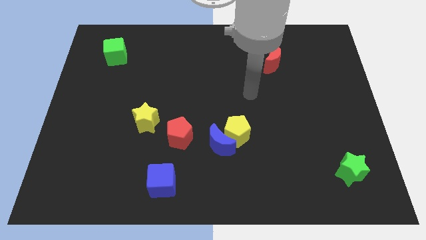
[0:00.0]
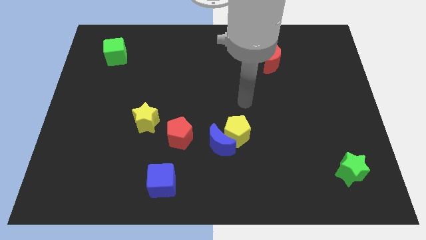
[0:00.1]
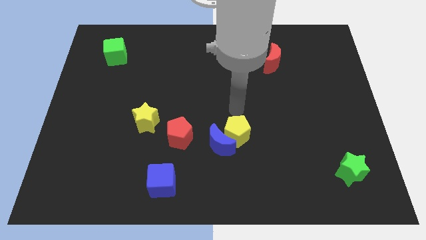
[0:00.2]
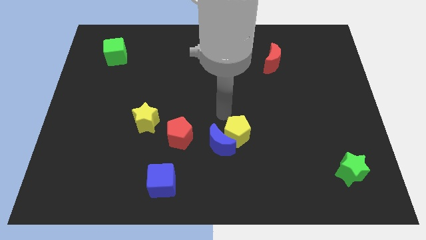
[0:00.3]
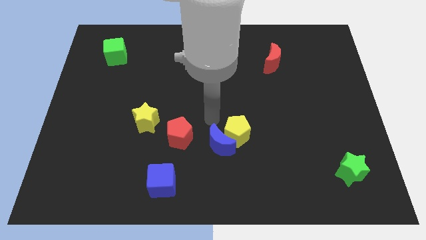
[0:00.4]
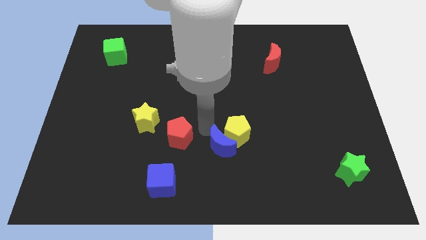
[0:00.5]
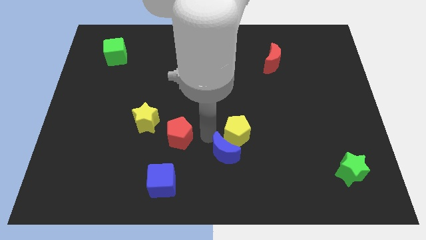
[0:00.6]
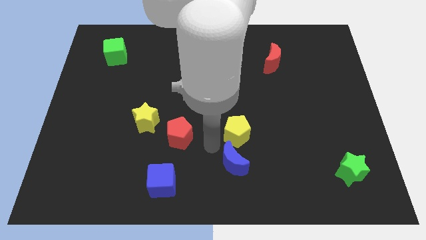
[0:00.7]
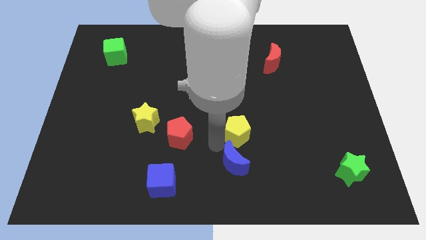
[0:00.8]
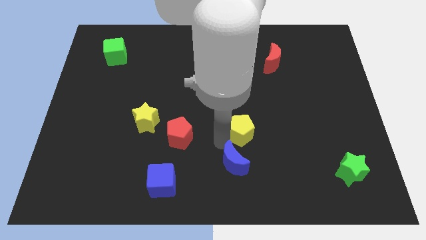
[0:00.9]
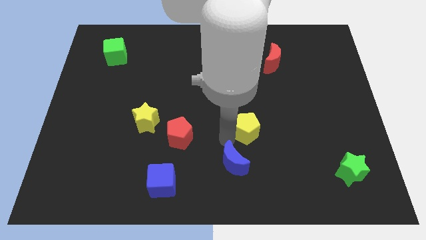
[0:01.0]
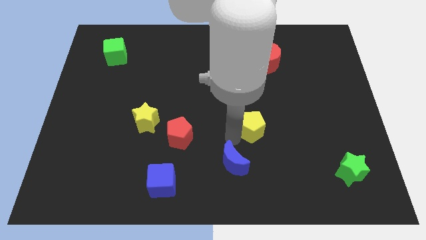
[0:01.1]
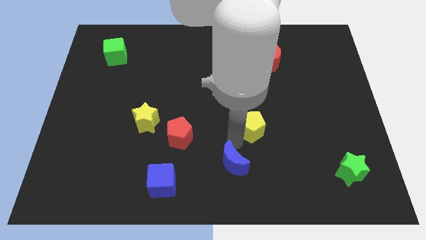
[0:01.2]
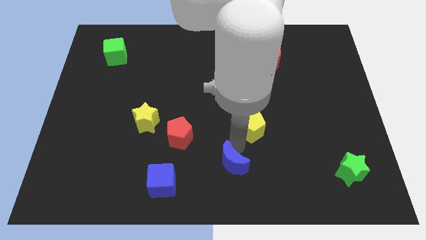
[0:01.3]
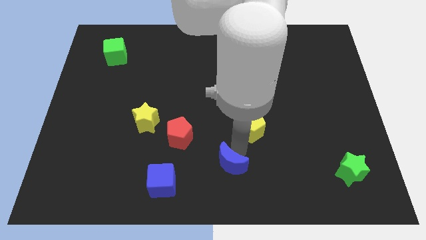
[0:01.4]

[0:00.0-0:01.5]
separate the yellow pentagon from the blue moon

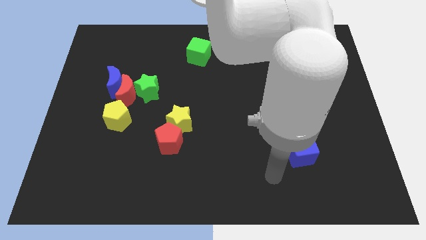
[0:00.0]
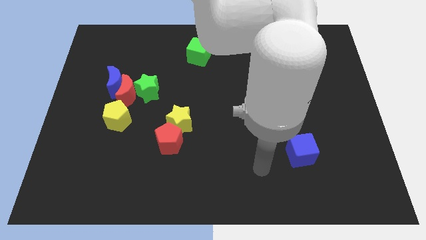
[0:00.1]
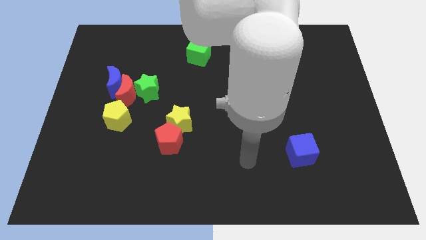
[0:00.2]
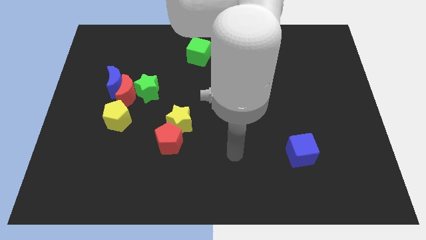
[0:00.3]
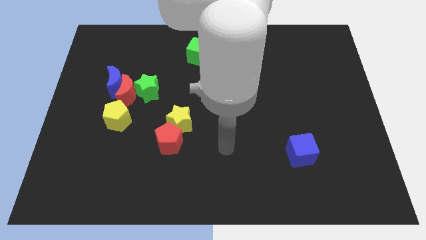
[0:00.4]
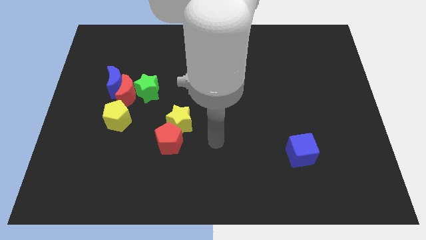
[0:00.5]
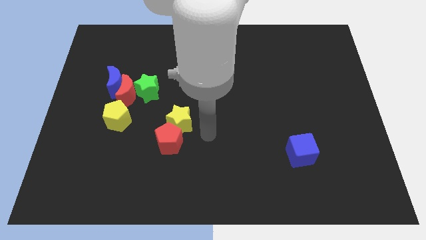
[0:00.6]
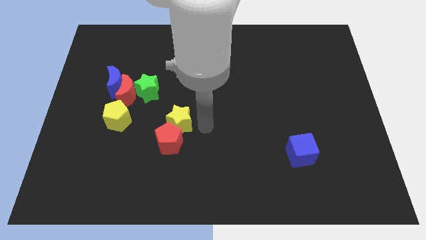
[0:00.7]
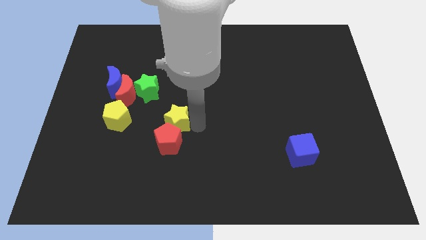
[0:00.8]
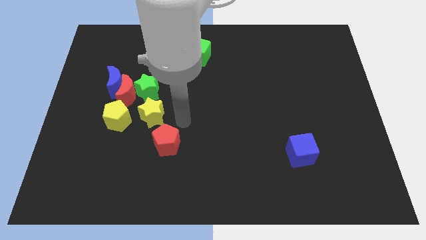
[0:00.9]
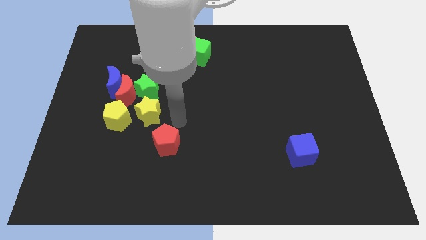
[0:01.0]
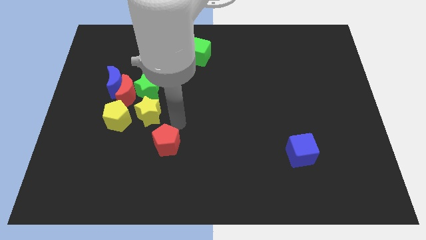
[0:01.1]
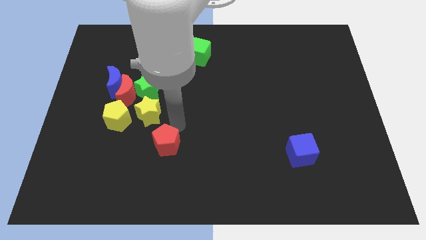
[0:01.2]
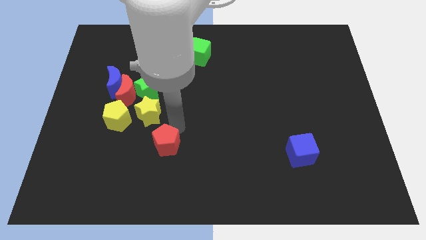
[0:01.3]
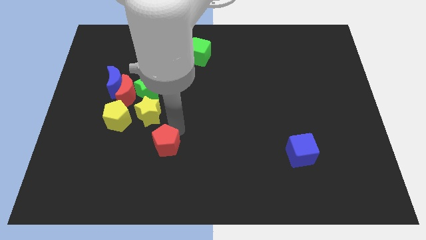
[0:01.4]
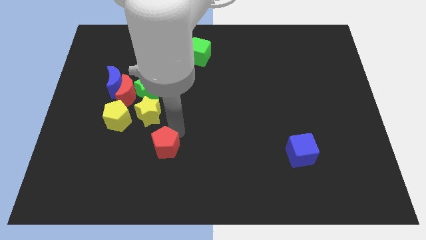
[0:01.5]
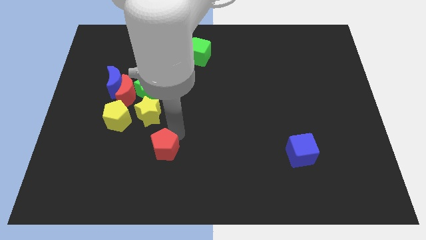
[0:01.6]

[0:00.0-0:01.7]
pull the red pentagon apart from the yellow star

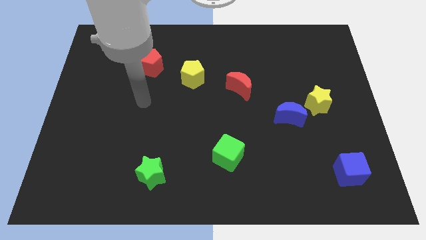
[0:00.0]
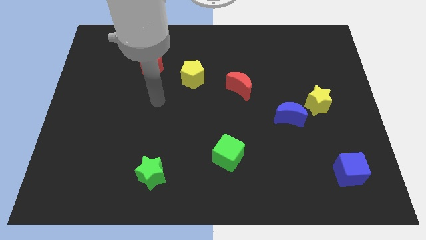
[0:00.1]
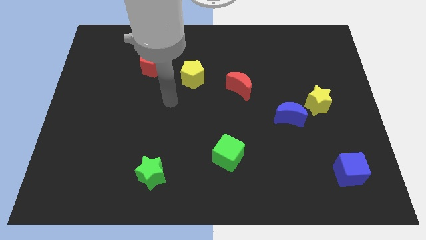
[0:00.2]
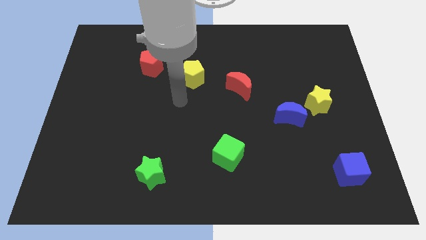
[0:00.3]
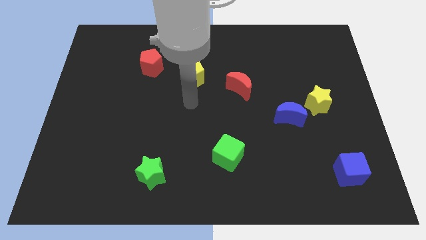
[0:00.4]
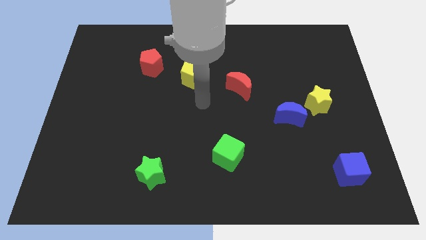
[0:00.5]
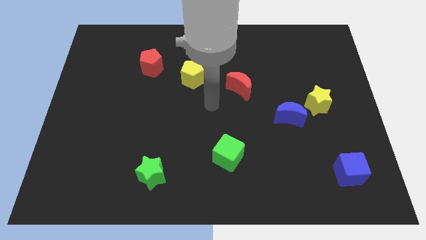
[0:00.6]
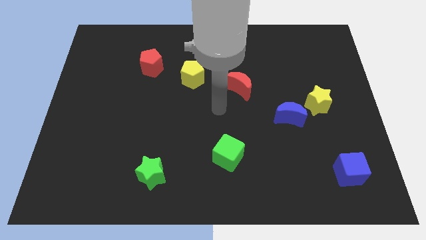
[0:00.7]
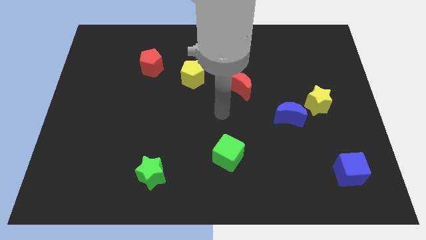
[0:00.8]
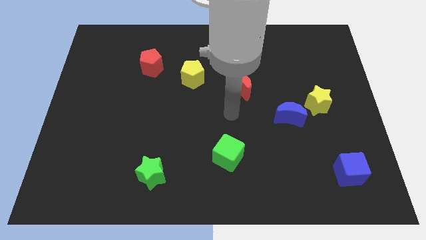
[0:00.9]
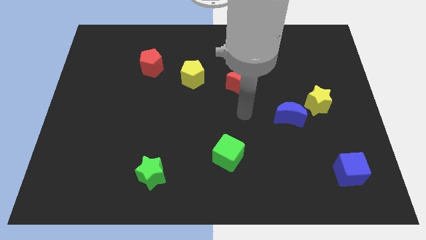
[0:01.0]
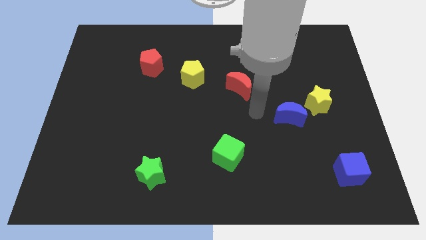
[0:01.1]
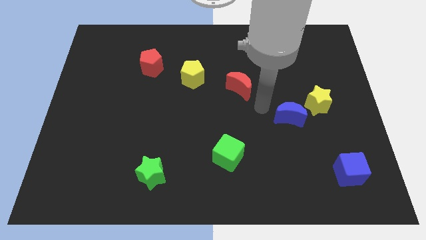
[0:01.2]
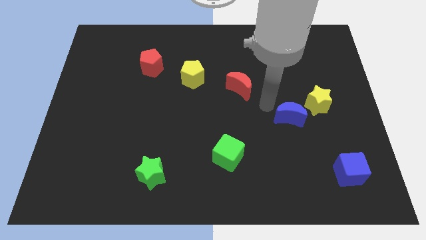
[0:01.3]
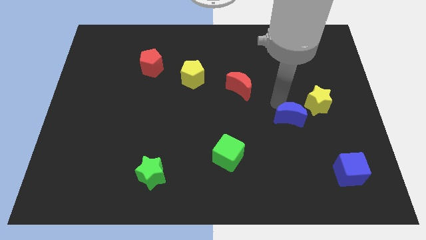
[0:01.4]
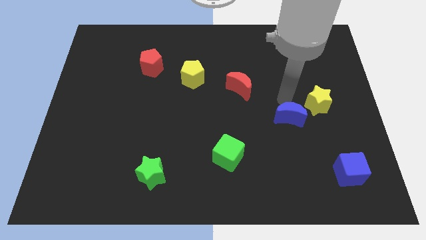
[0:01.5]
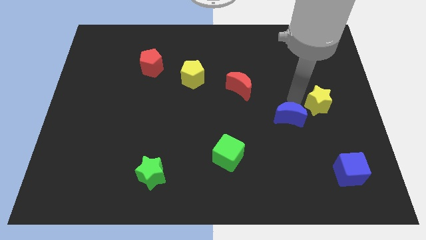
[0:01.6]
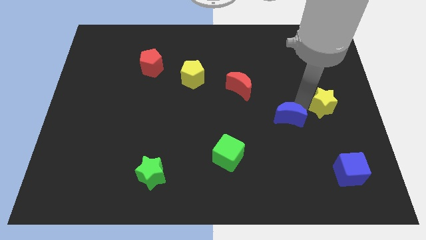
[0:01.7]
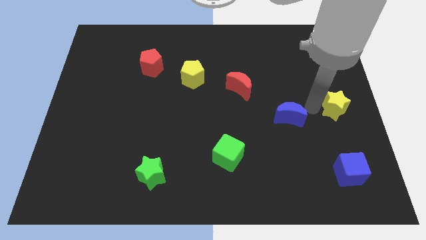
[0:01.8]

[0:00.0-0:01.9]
separate the blue moon from the yellow star

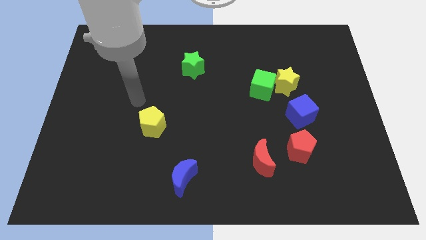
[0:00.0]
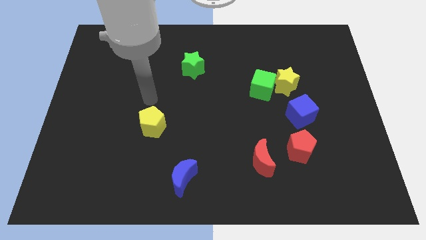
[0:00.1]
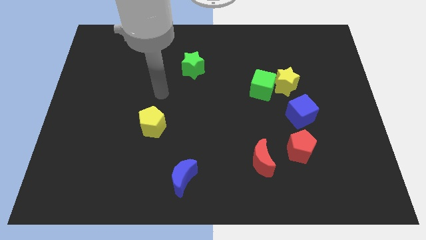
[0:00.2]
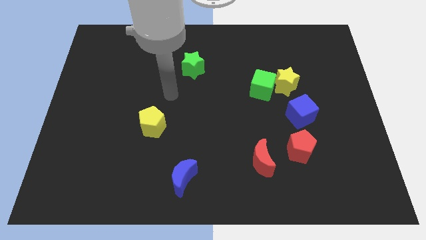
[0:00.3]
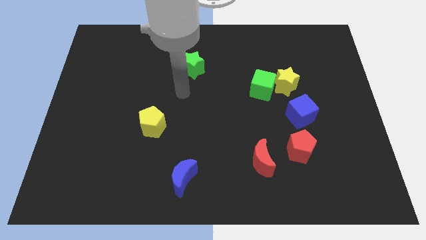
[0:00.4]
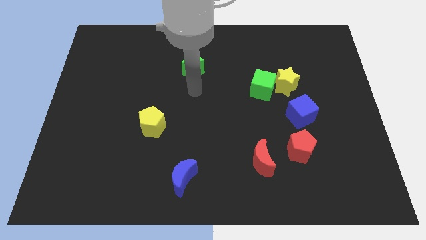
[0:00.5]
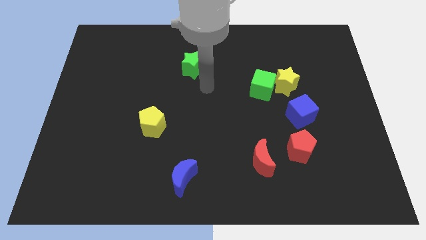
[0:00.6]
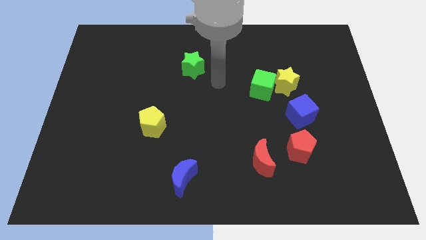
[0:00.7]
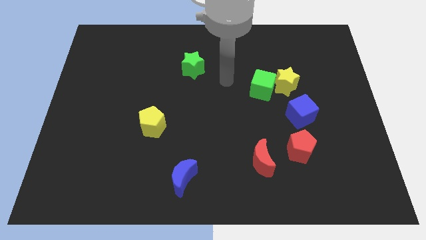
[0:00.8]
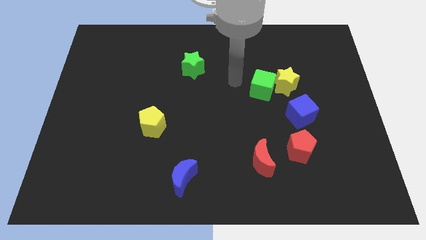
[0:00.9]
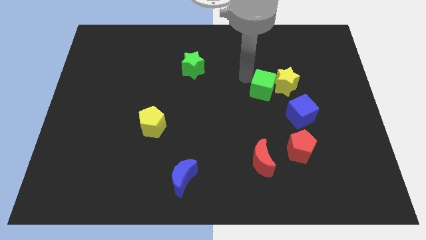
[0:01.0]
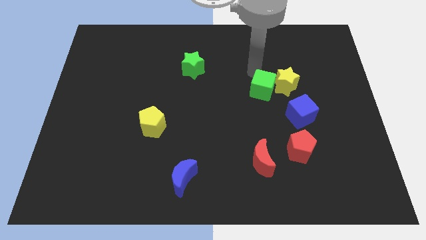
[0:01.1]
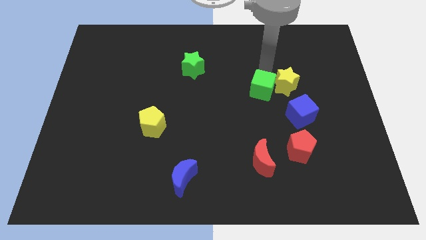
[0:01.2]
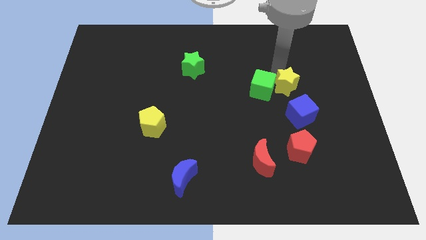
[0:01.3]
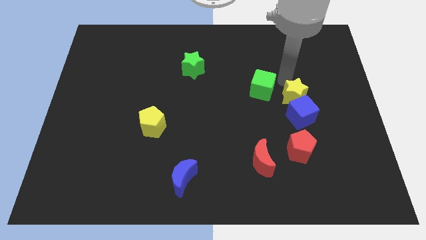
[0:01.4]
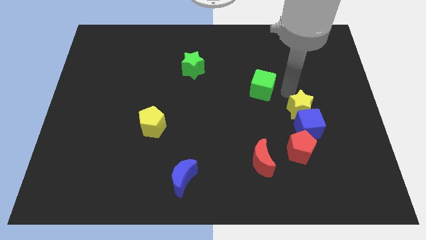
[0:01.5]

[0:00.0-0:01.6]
separate the green cube from the yellow star

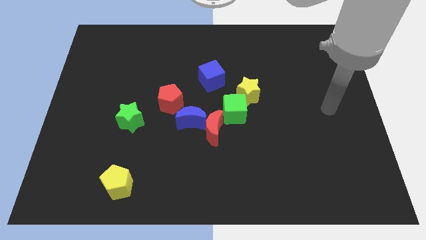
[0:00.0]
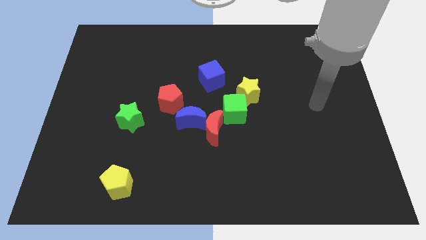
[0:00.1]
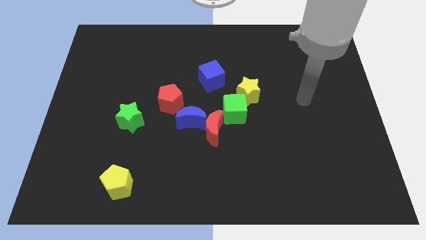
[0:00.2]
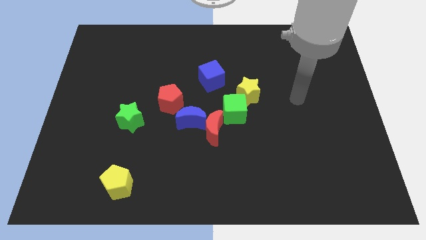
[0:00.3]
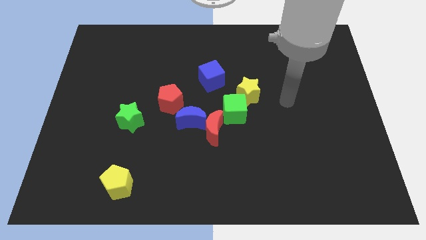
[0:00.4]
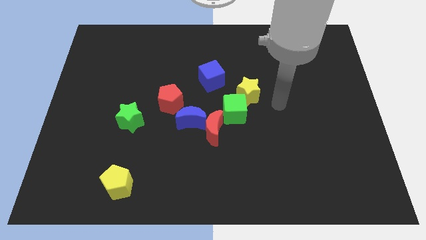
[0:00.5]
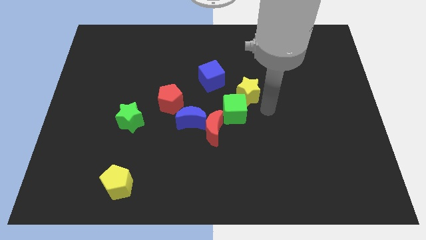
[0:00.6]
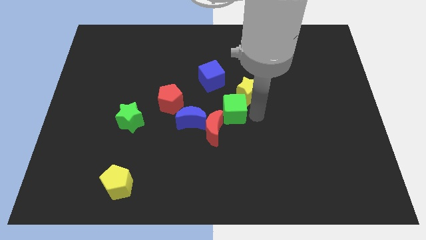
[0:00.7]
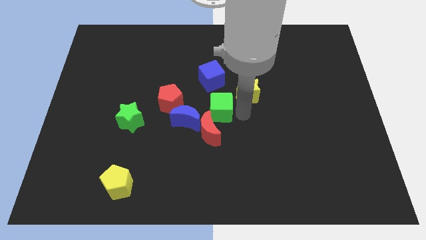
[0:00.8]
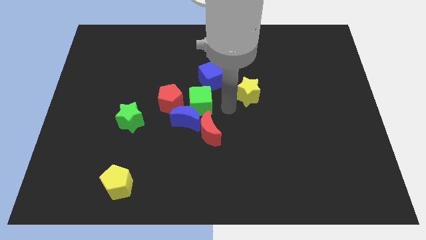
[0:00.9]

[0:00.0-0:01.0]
pull the yellow star apart from the green cube

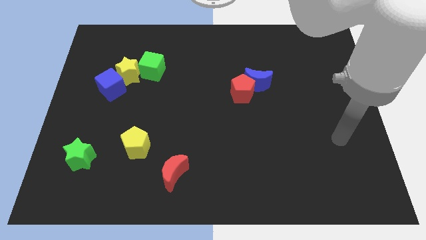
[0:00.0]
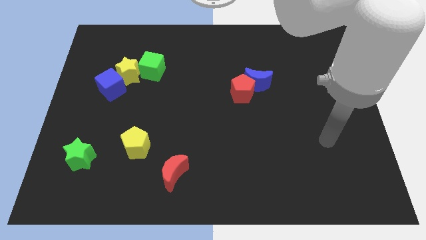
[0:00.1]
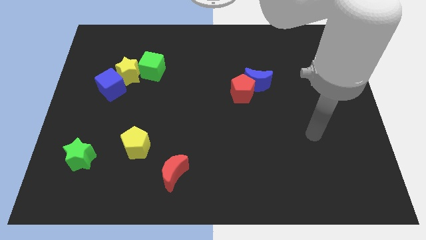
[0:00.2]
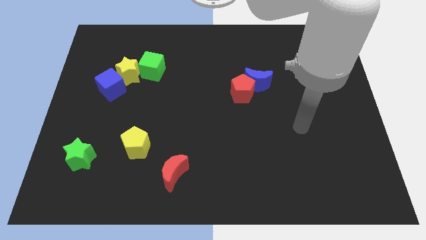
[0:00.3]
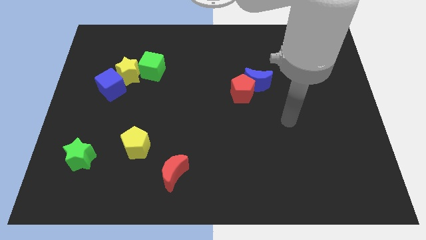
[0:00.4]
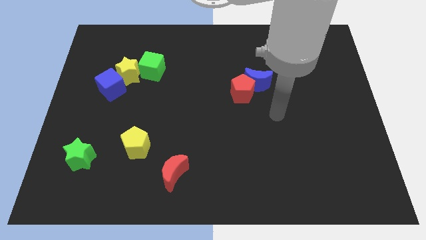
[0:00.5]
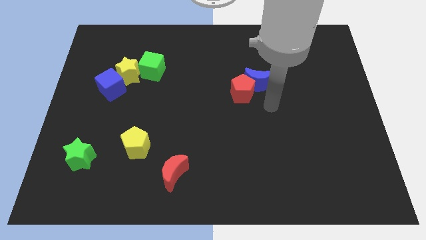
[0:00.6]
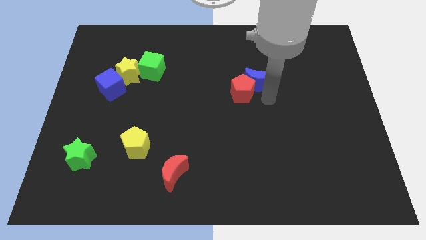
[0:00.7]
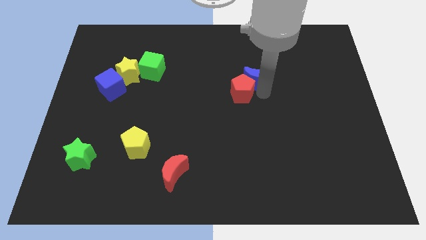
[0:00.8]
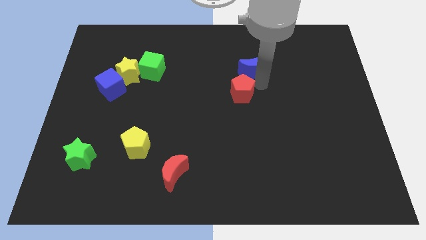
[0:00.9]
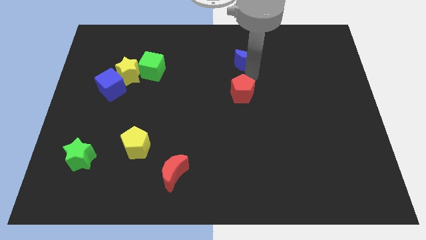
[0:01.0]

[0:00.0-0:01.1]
separate the red pentagon from the blue moon

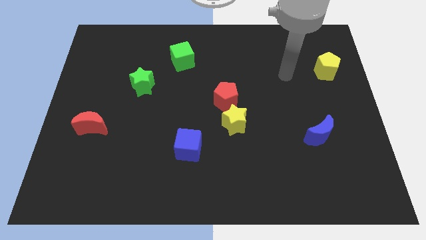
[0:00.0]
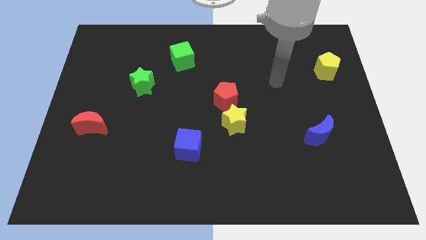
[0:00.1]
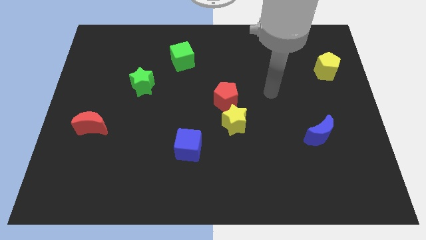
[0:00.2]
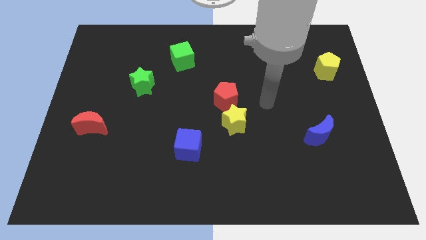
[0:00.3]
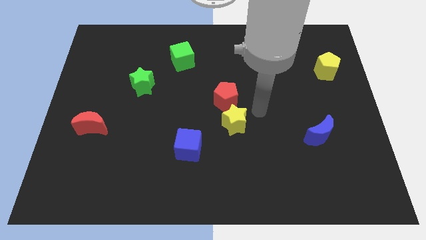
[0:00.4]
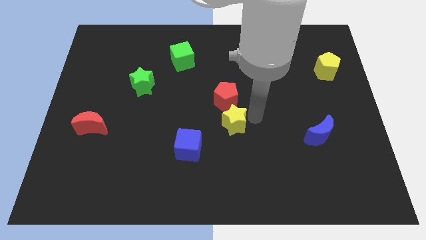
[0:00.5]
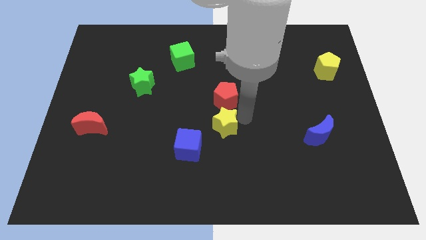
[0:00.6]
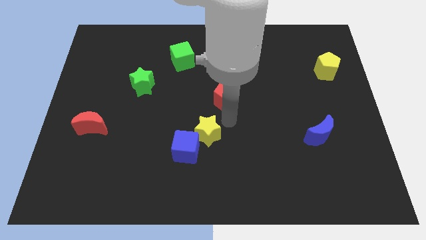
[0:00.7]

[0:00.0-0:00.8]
separate the red pentagon from the yellow star
